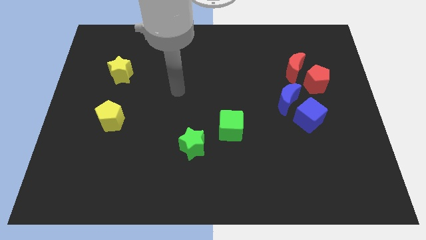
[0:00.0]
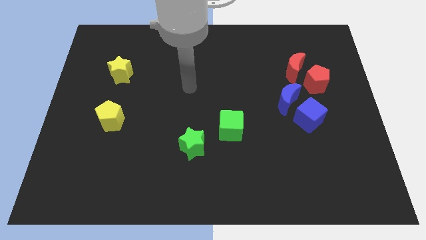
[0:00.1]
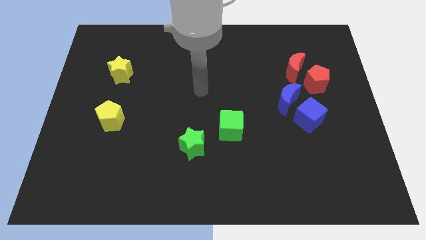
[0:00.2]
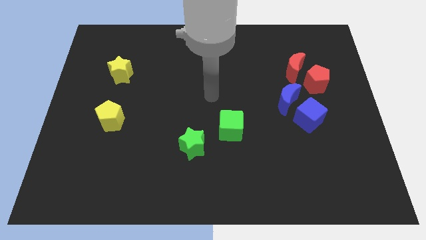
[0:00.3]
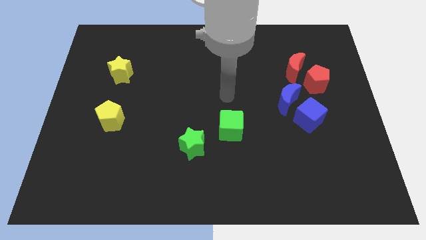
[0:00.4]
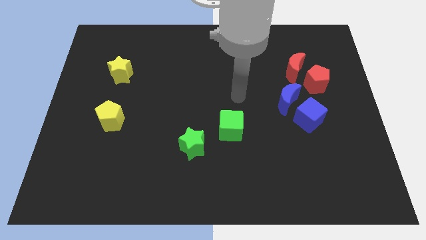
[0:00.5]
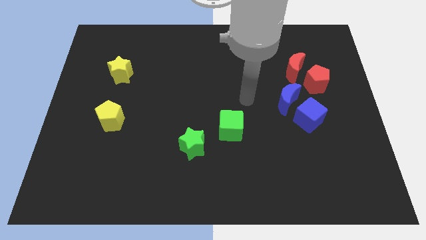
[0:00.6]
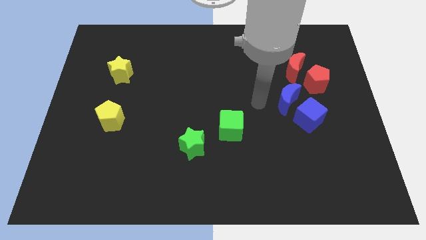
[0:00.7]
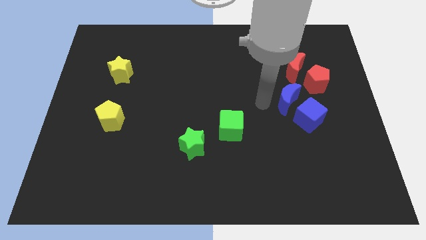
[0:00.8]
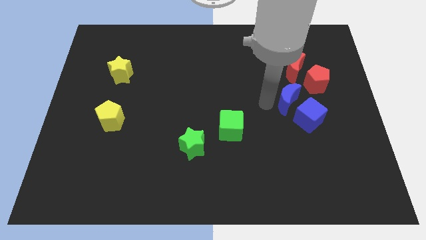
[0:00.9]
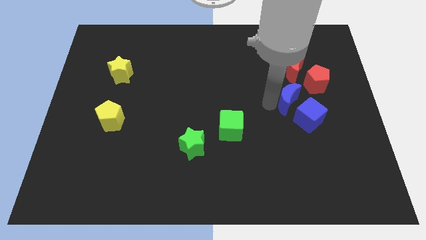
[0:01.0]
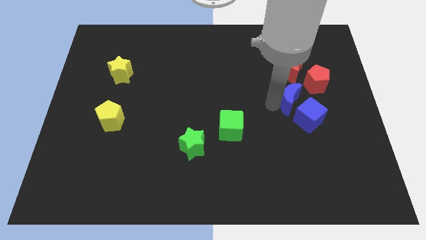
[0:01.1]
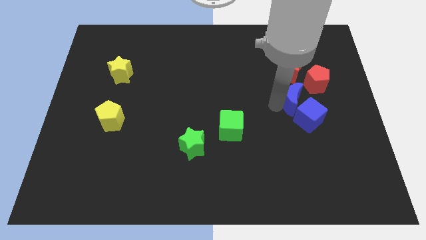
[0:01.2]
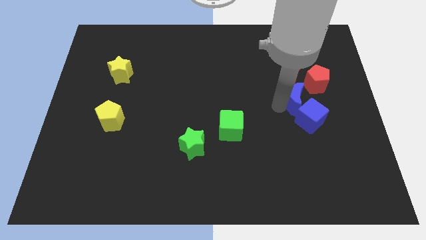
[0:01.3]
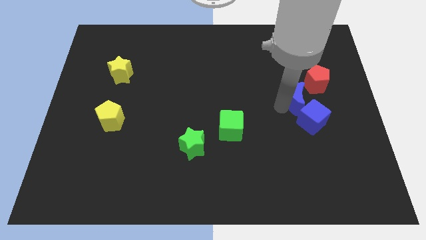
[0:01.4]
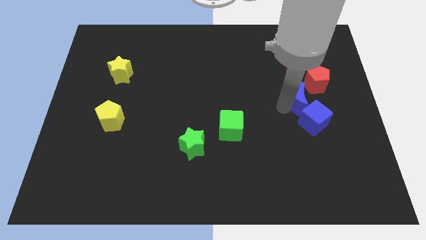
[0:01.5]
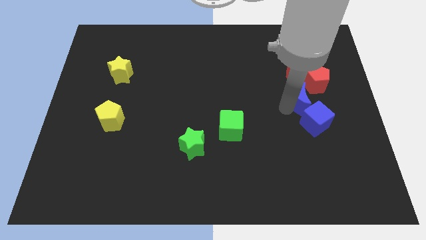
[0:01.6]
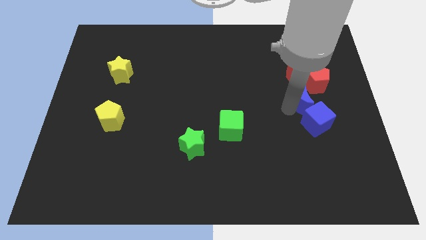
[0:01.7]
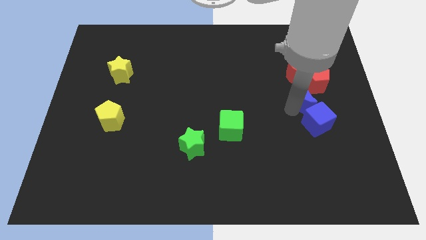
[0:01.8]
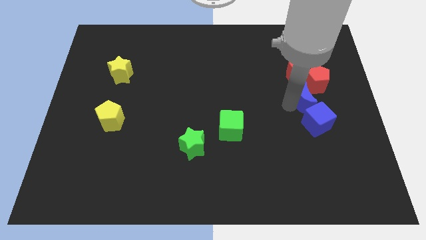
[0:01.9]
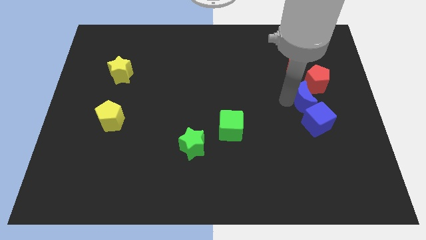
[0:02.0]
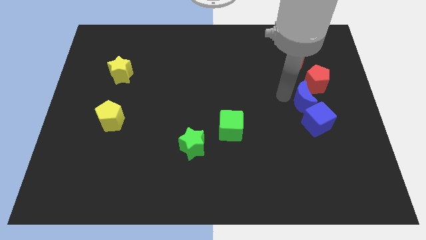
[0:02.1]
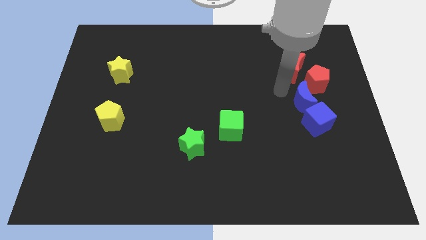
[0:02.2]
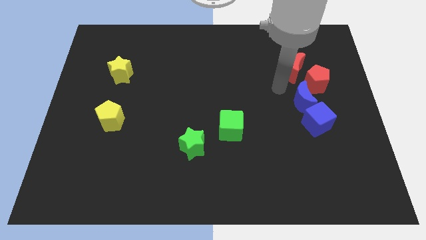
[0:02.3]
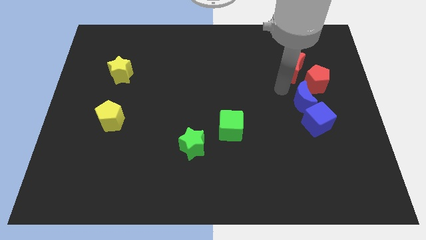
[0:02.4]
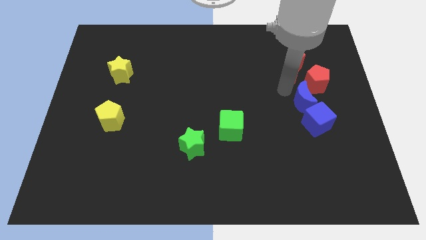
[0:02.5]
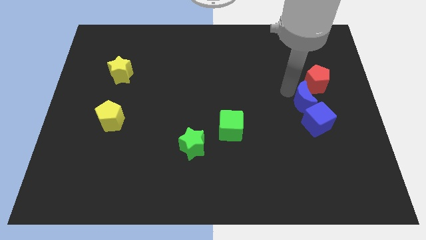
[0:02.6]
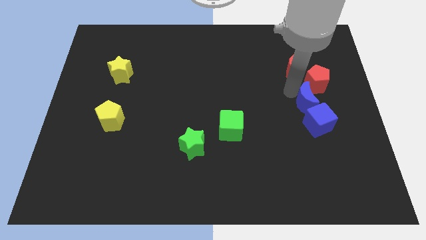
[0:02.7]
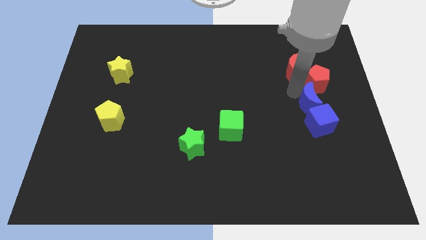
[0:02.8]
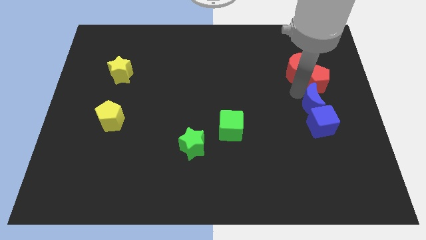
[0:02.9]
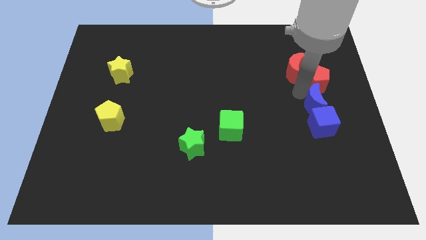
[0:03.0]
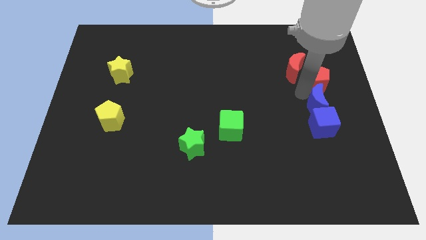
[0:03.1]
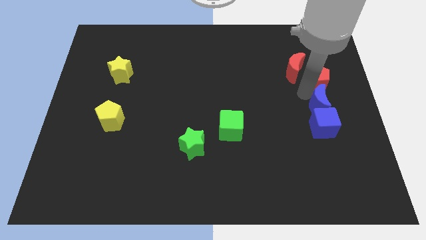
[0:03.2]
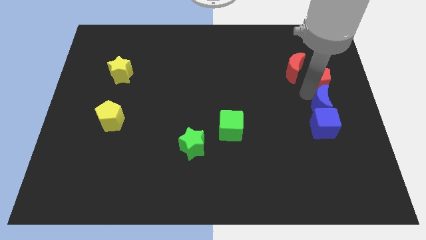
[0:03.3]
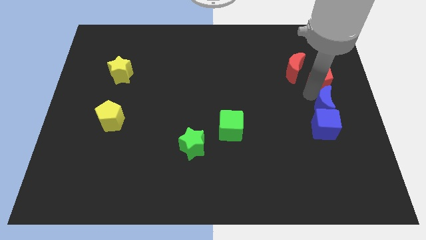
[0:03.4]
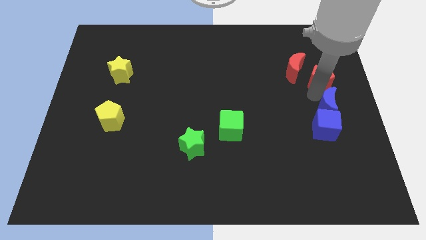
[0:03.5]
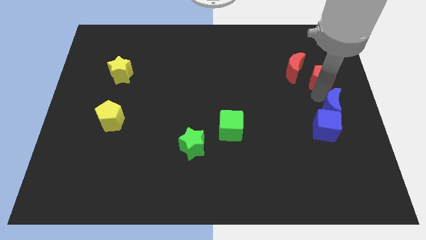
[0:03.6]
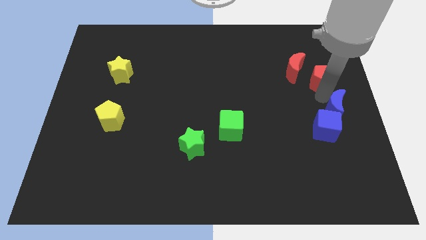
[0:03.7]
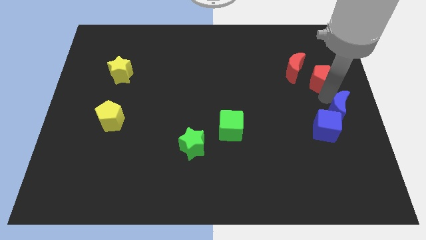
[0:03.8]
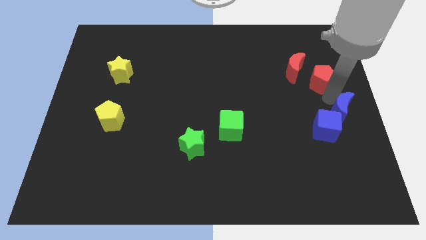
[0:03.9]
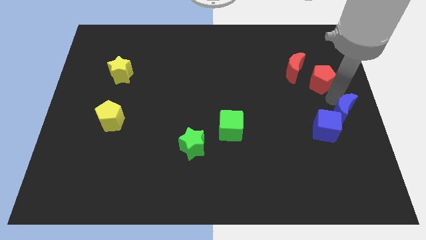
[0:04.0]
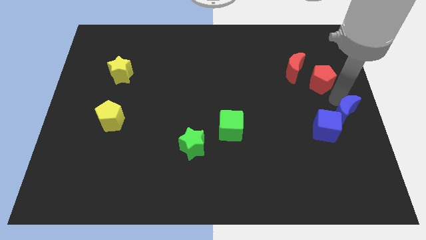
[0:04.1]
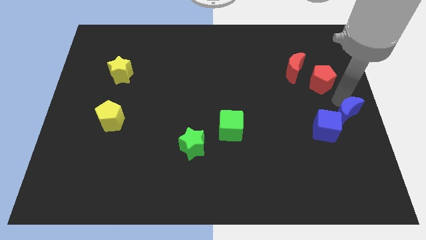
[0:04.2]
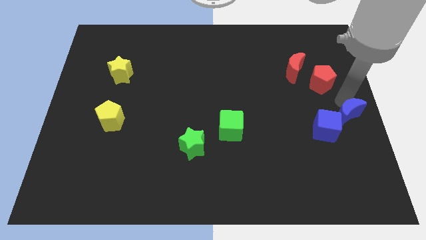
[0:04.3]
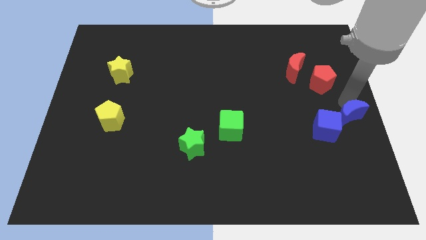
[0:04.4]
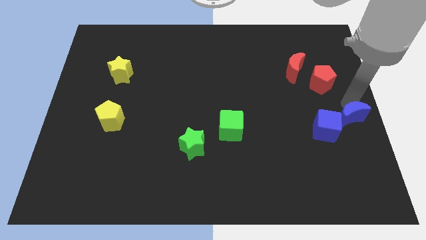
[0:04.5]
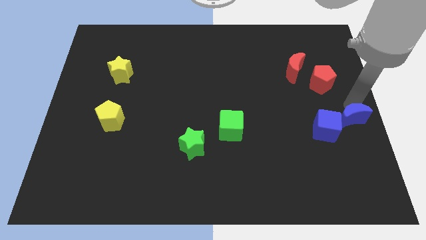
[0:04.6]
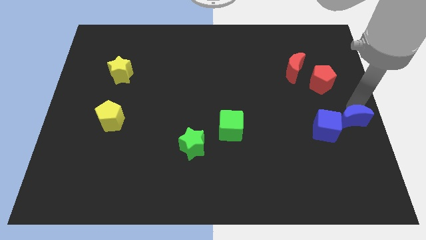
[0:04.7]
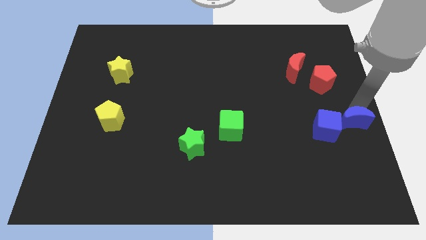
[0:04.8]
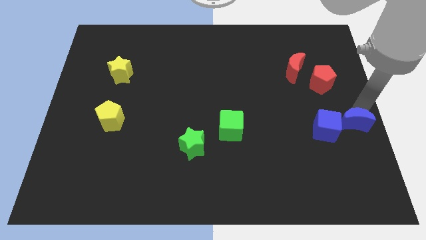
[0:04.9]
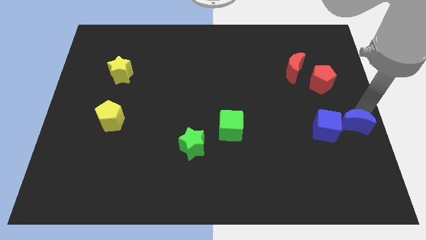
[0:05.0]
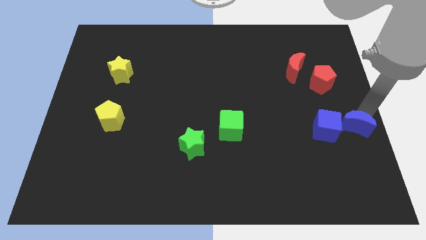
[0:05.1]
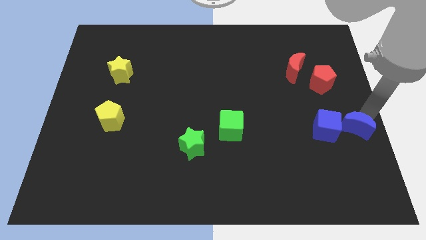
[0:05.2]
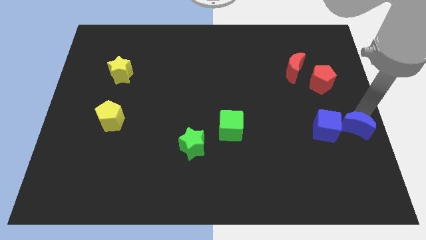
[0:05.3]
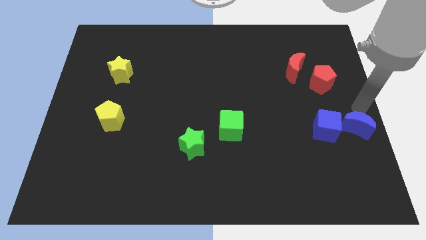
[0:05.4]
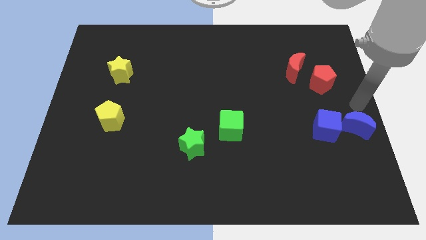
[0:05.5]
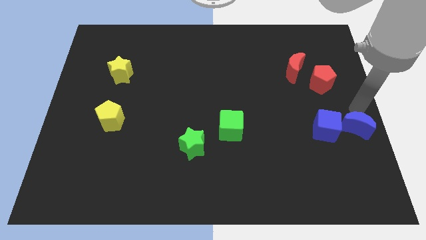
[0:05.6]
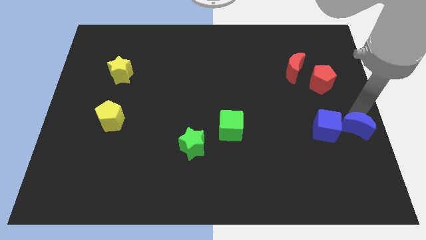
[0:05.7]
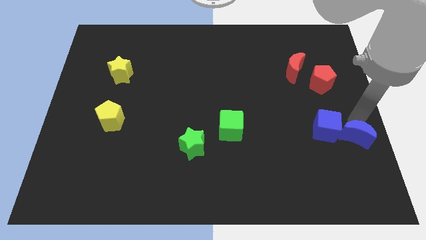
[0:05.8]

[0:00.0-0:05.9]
move the blue moon diagonally down and to the right of the blue cube

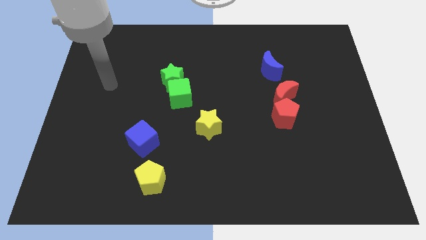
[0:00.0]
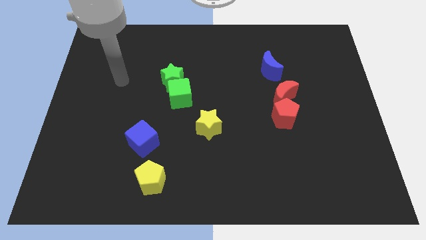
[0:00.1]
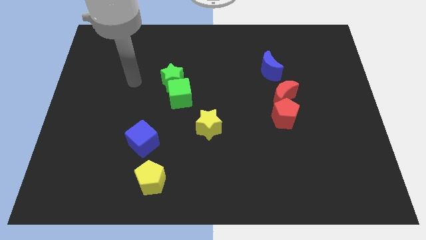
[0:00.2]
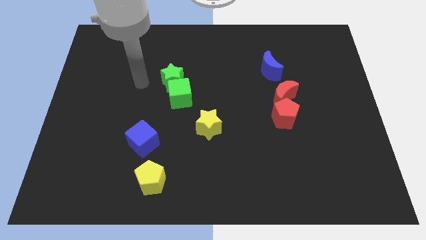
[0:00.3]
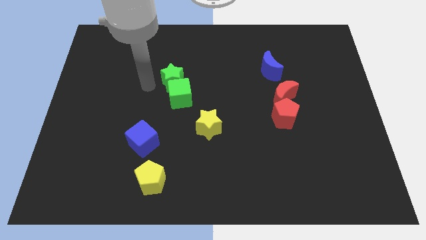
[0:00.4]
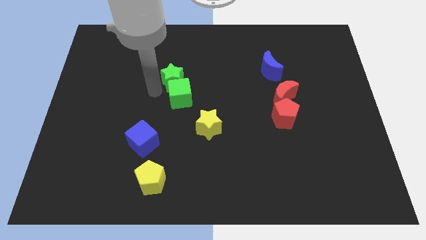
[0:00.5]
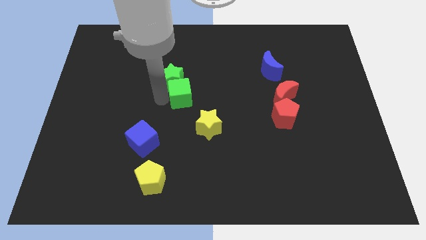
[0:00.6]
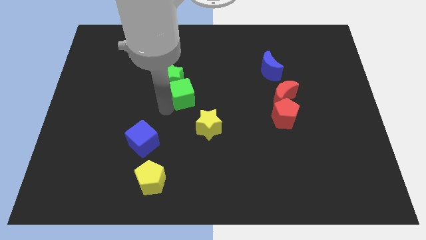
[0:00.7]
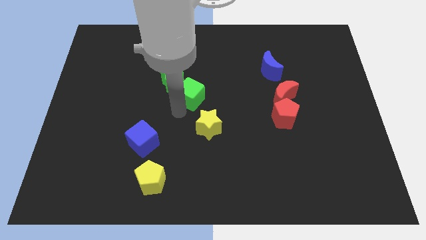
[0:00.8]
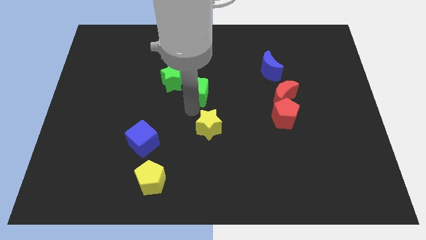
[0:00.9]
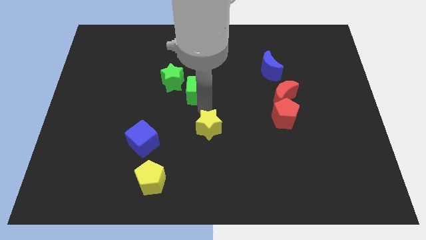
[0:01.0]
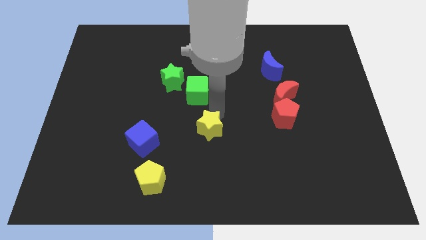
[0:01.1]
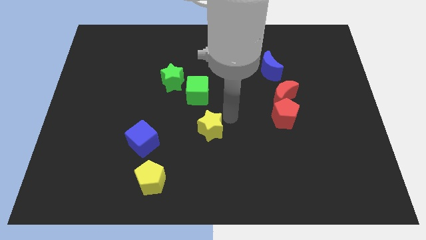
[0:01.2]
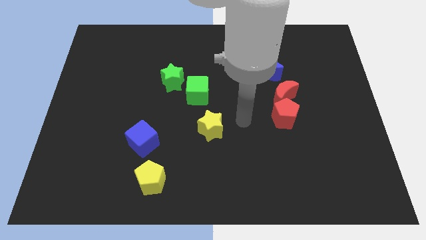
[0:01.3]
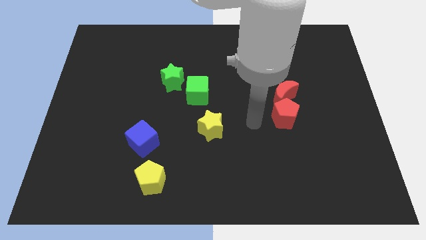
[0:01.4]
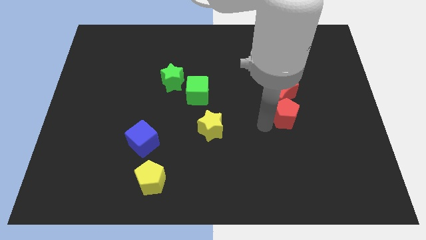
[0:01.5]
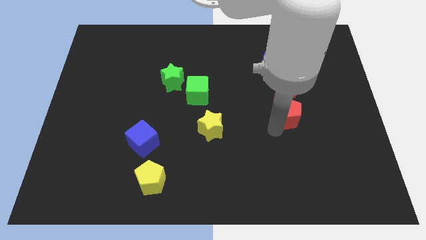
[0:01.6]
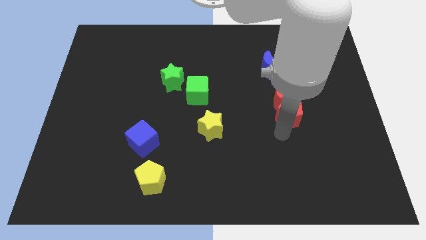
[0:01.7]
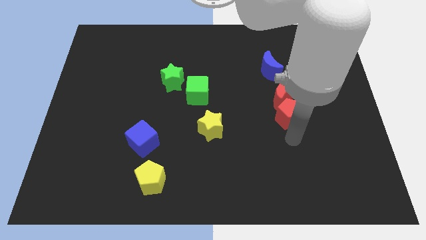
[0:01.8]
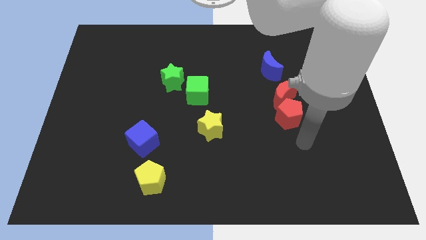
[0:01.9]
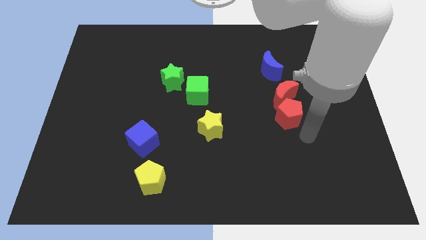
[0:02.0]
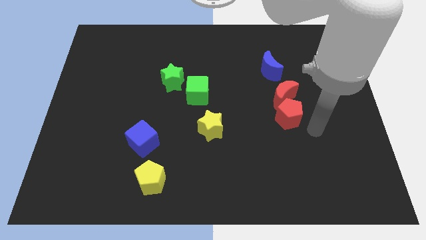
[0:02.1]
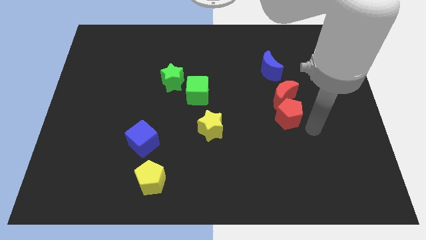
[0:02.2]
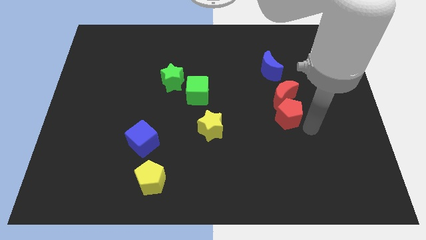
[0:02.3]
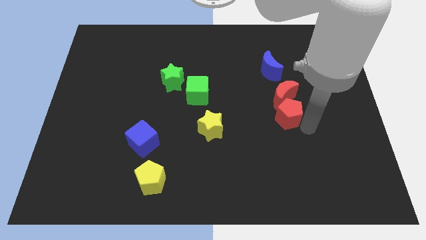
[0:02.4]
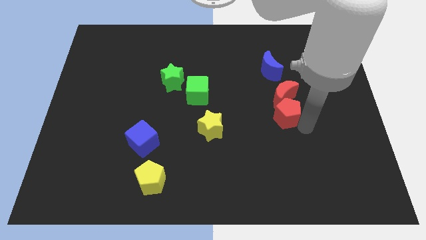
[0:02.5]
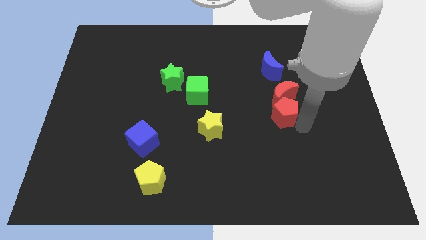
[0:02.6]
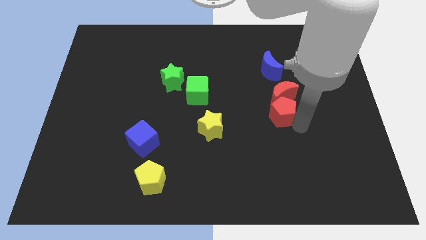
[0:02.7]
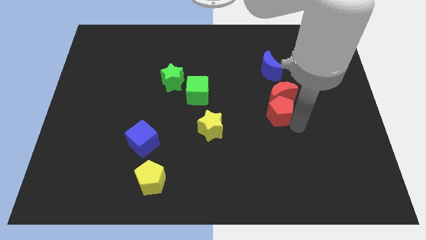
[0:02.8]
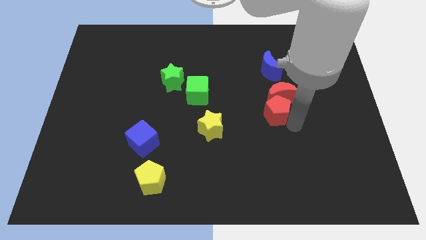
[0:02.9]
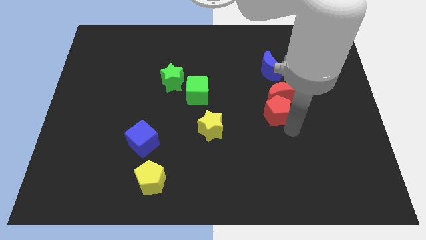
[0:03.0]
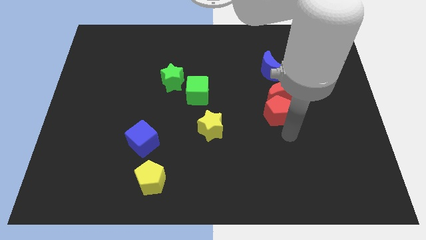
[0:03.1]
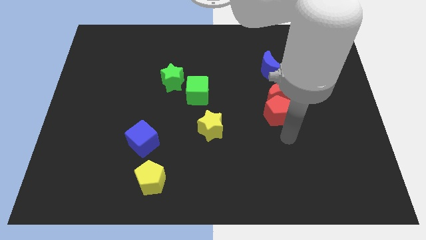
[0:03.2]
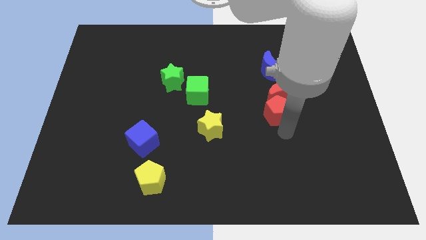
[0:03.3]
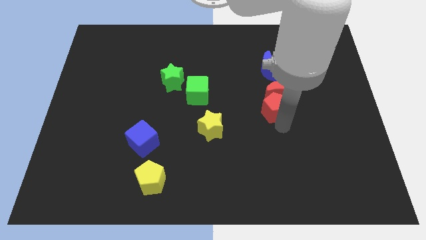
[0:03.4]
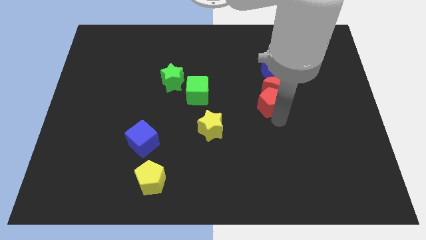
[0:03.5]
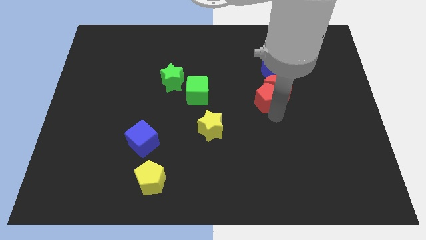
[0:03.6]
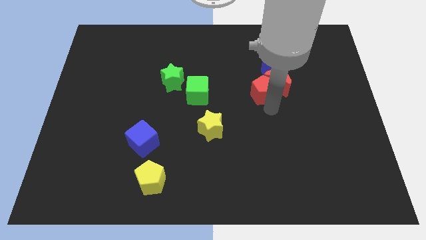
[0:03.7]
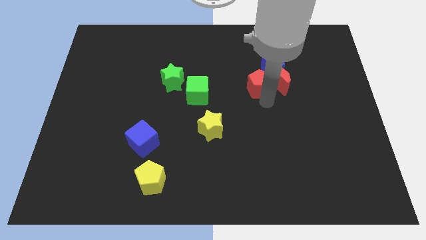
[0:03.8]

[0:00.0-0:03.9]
put the red pentagon diagonally up and to the left of the red moon
